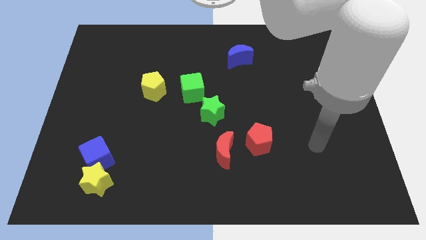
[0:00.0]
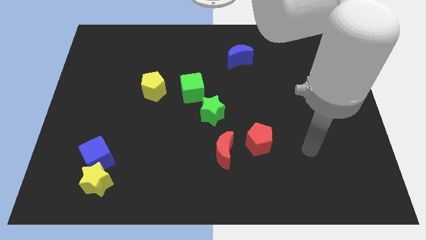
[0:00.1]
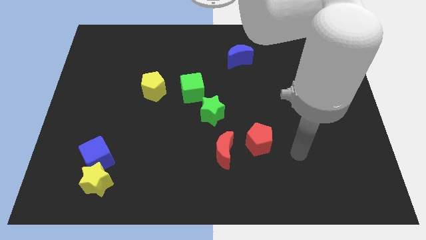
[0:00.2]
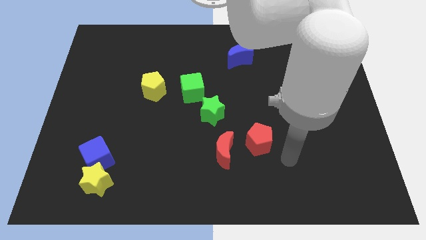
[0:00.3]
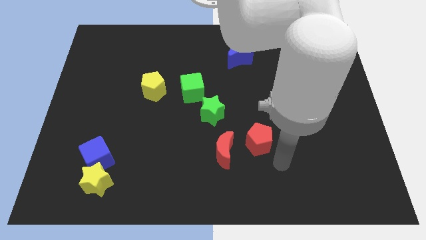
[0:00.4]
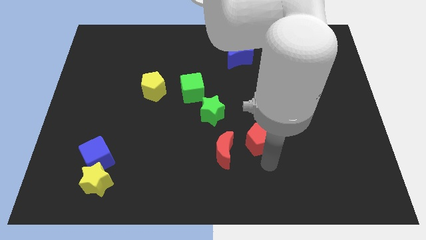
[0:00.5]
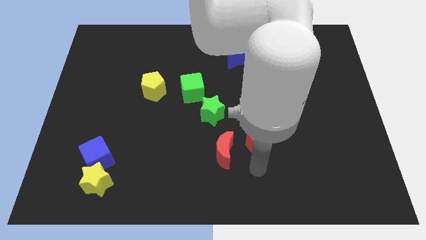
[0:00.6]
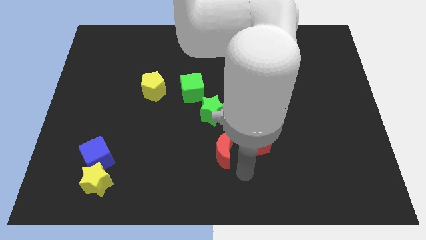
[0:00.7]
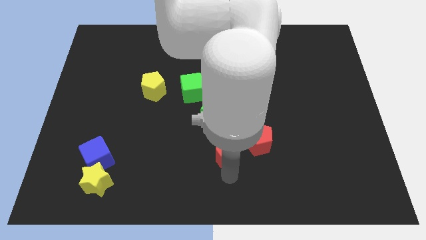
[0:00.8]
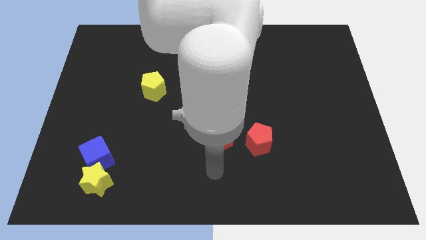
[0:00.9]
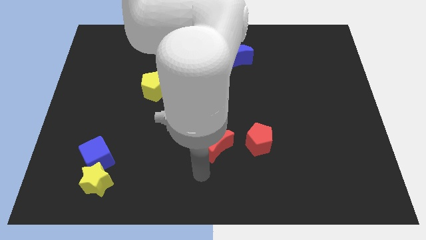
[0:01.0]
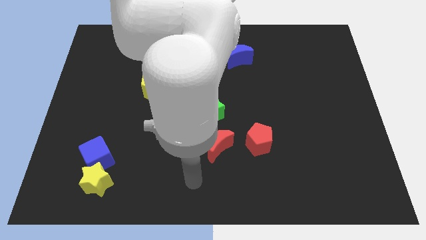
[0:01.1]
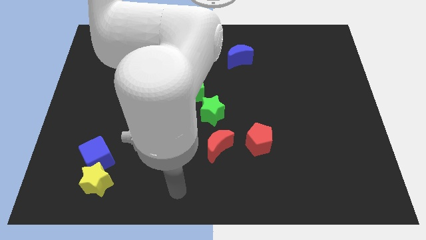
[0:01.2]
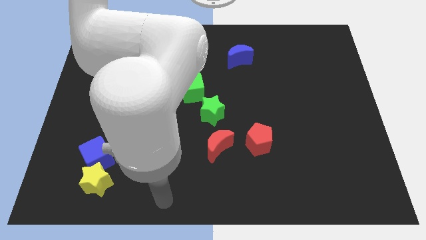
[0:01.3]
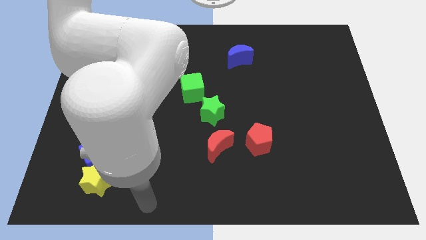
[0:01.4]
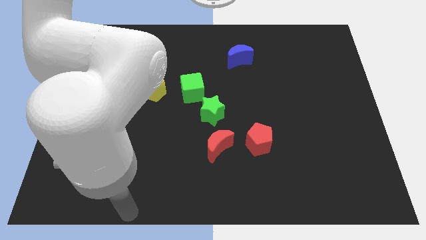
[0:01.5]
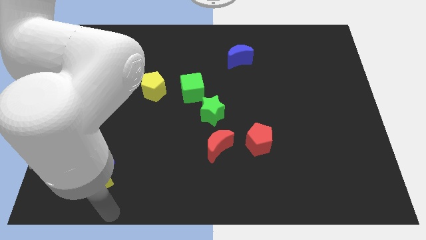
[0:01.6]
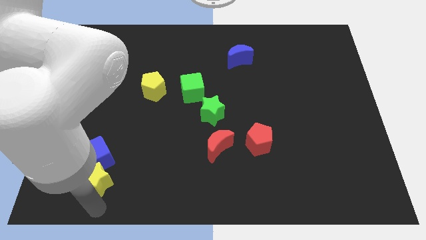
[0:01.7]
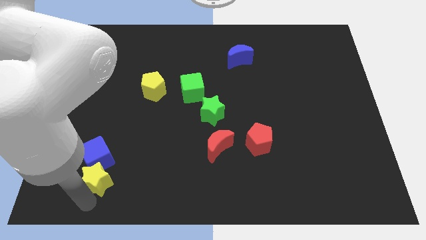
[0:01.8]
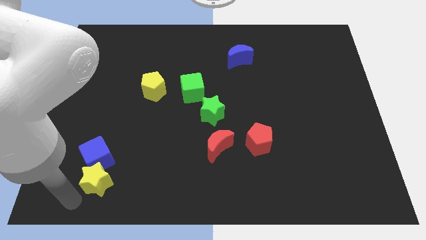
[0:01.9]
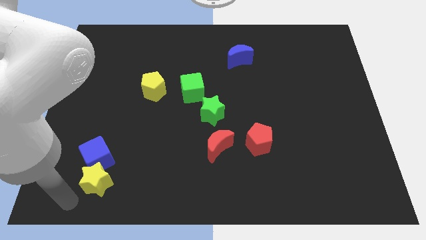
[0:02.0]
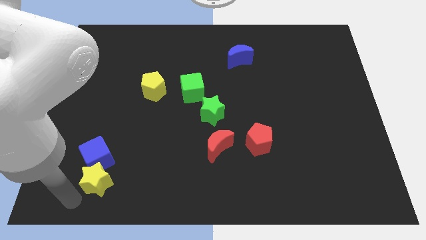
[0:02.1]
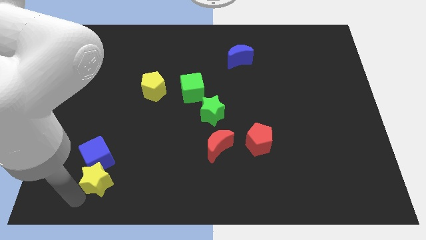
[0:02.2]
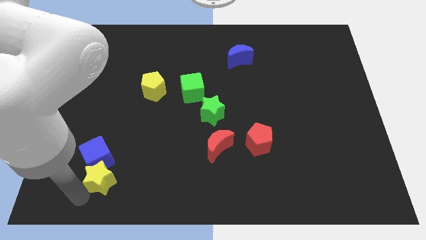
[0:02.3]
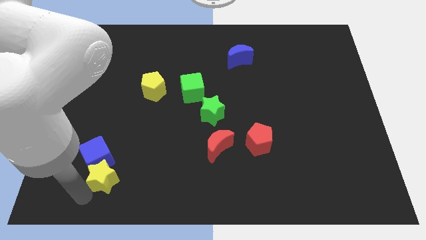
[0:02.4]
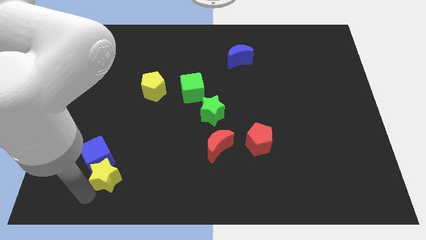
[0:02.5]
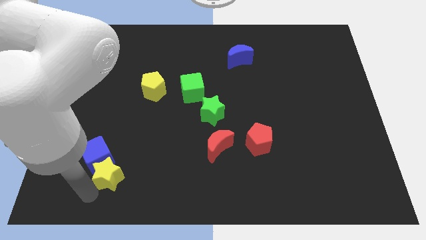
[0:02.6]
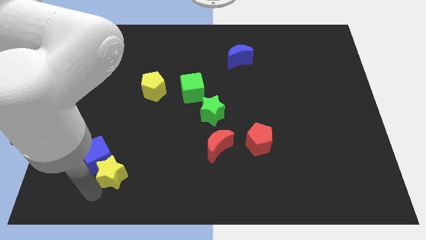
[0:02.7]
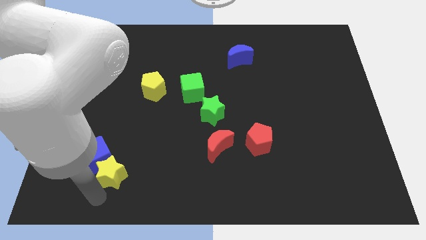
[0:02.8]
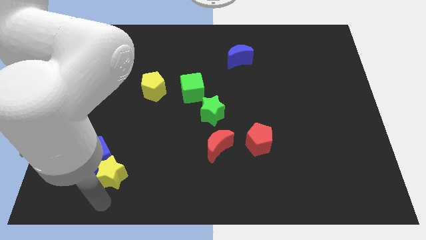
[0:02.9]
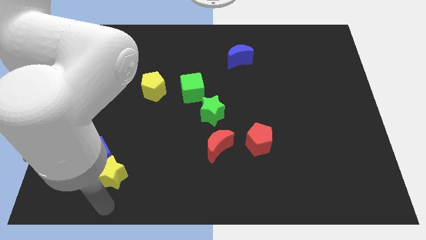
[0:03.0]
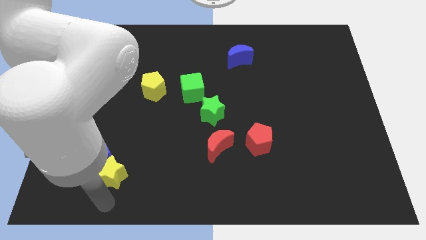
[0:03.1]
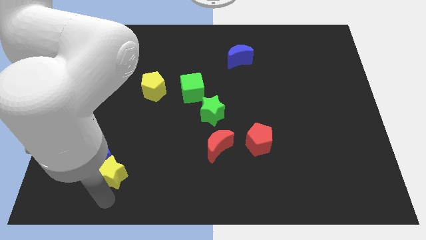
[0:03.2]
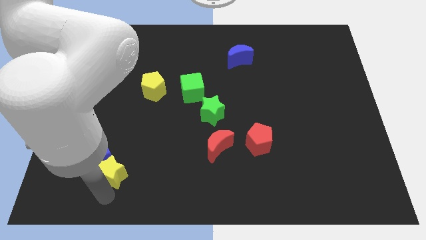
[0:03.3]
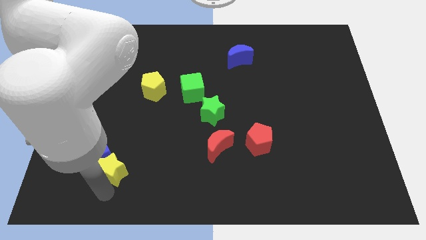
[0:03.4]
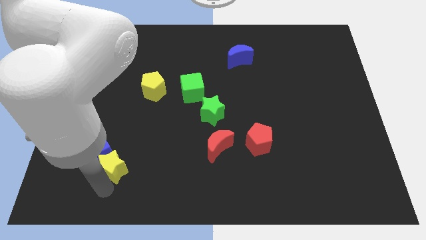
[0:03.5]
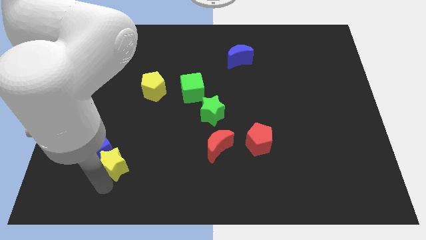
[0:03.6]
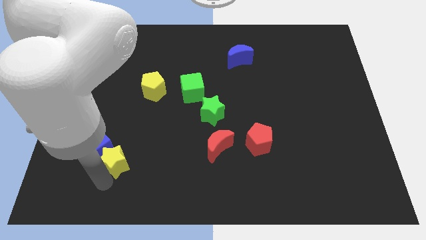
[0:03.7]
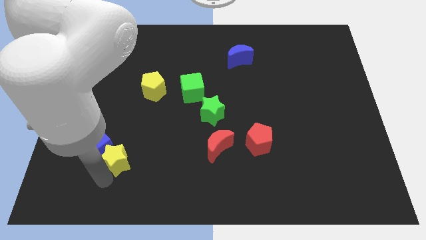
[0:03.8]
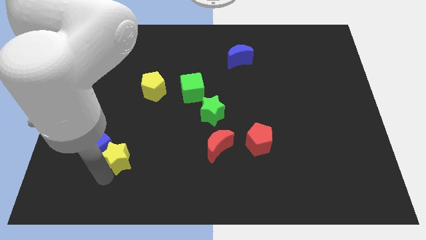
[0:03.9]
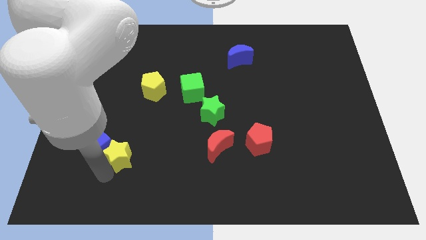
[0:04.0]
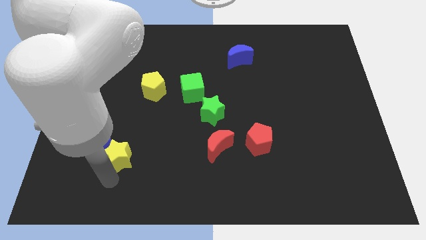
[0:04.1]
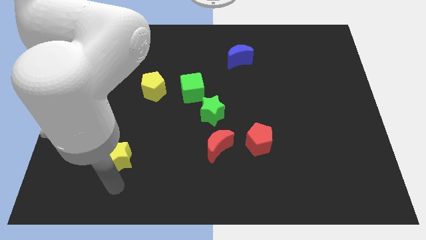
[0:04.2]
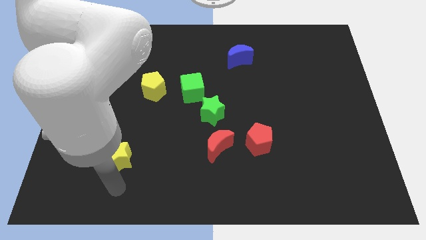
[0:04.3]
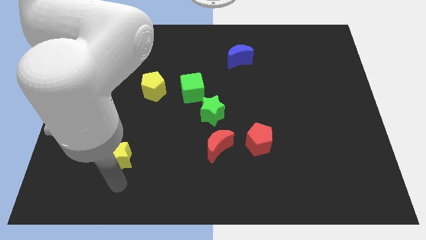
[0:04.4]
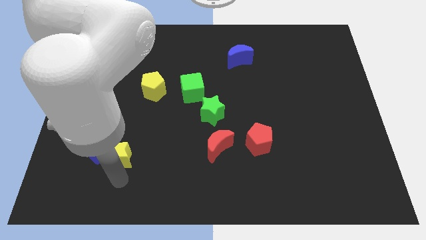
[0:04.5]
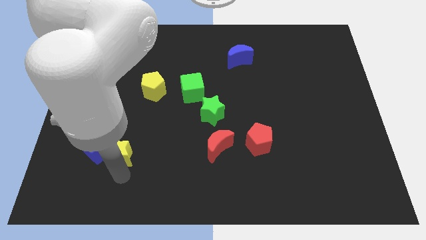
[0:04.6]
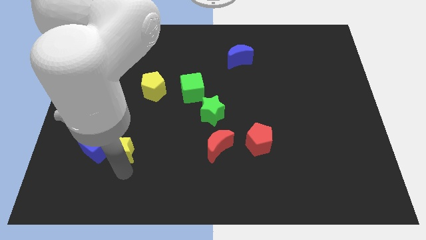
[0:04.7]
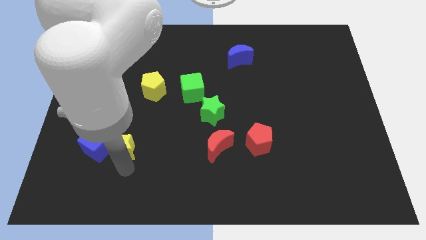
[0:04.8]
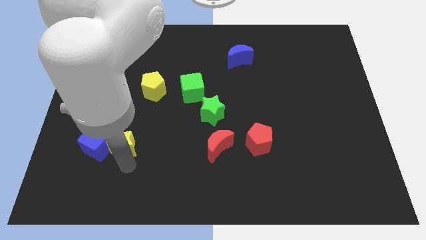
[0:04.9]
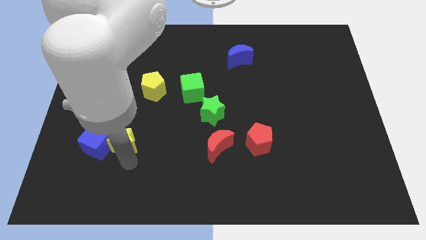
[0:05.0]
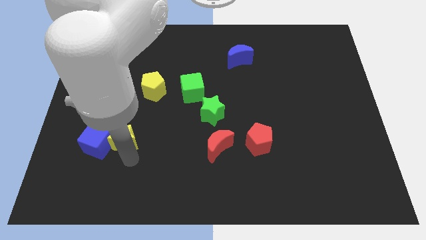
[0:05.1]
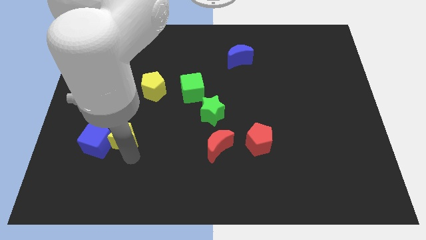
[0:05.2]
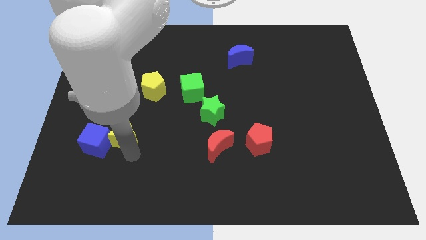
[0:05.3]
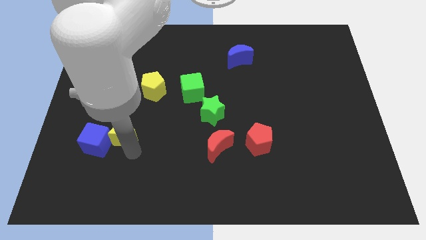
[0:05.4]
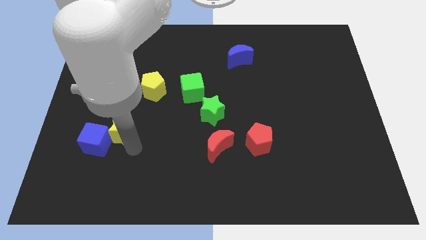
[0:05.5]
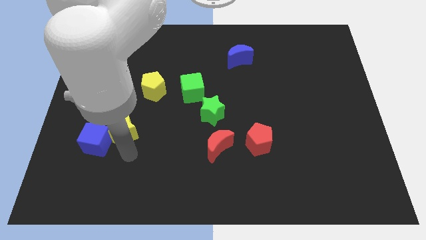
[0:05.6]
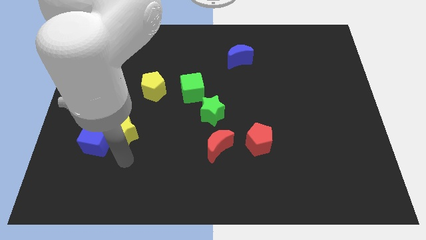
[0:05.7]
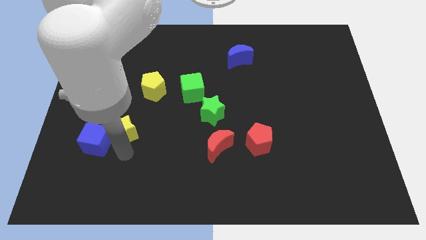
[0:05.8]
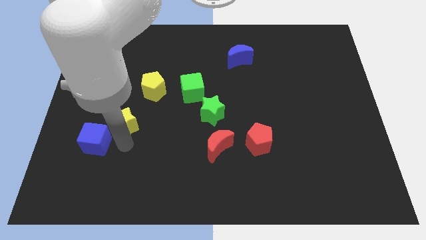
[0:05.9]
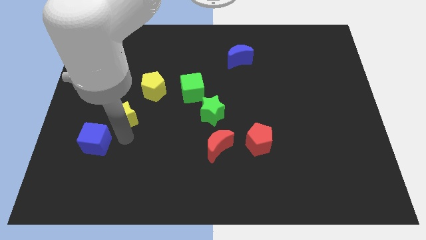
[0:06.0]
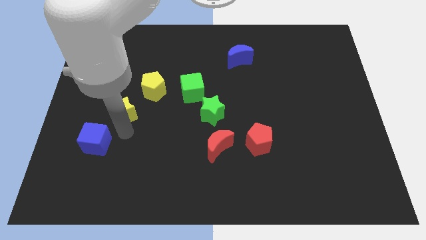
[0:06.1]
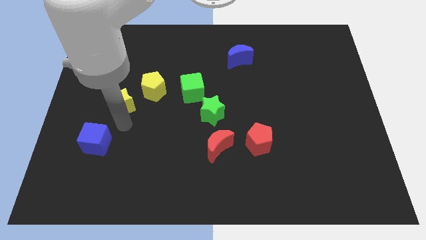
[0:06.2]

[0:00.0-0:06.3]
move the yellow star upwards

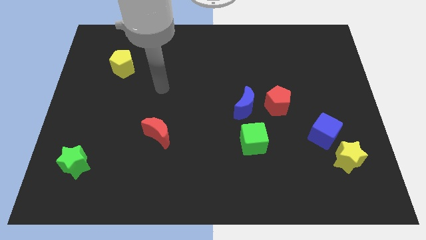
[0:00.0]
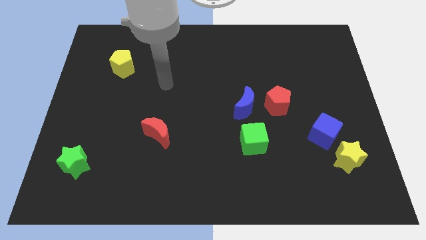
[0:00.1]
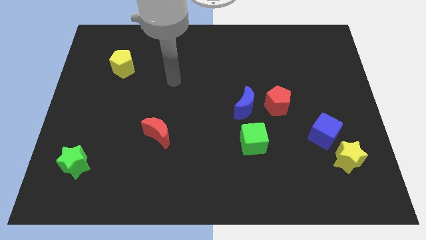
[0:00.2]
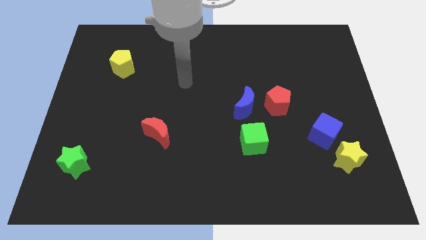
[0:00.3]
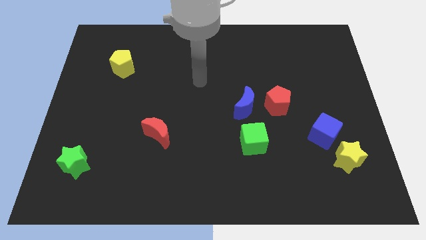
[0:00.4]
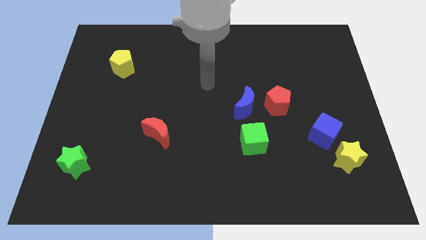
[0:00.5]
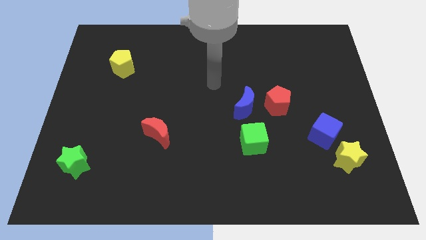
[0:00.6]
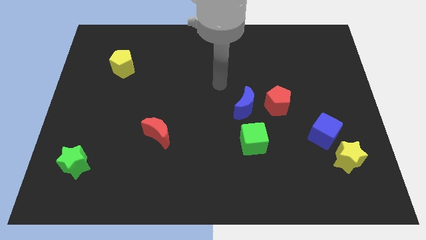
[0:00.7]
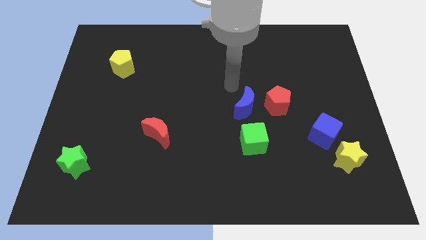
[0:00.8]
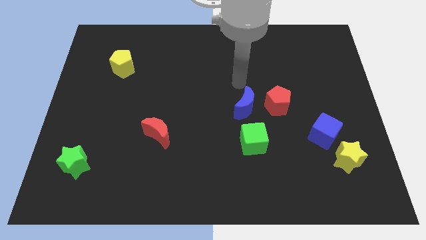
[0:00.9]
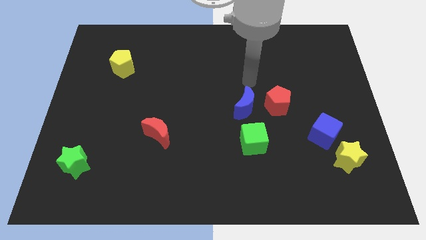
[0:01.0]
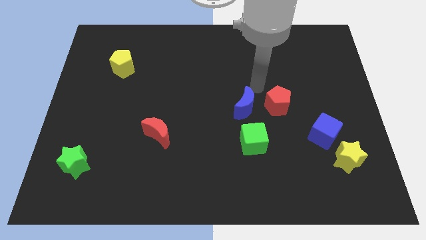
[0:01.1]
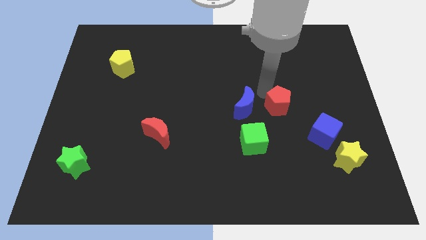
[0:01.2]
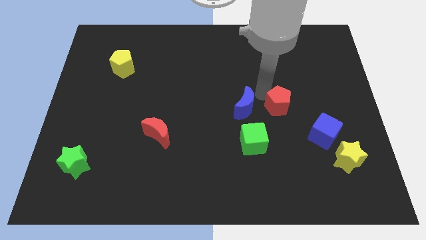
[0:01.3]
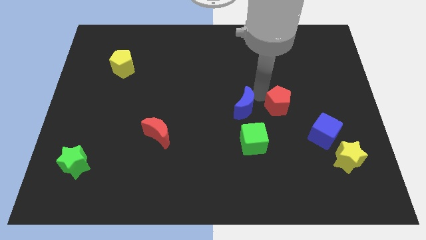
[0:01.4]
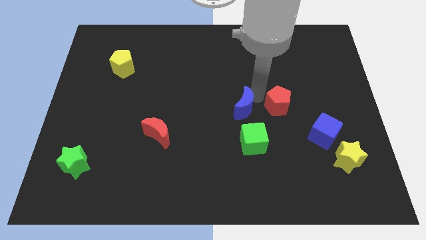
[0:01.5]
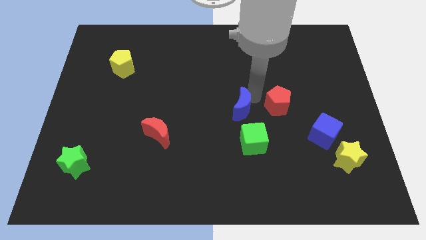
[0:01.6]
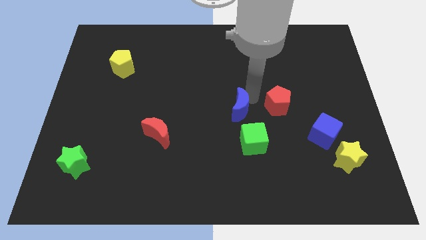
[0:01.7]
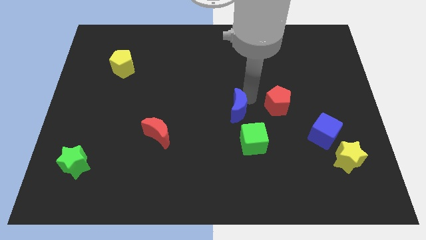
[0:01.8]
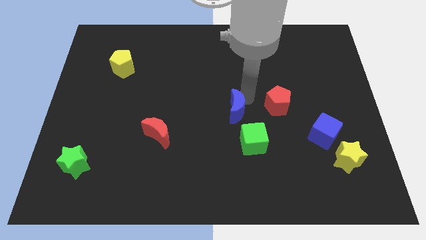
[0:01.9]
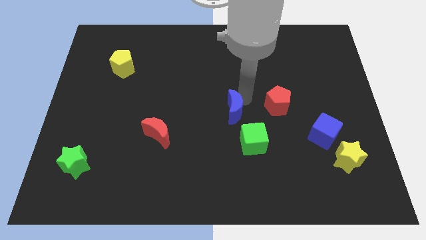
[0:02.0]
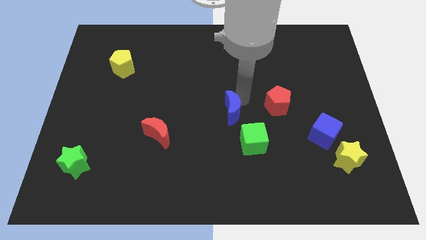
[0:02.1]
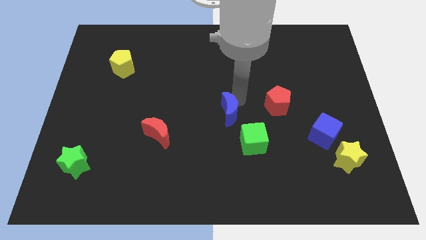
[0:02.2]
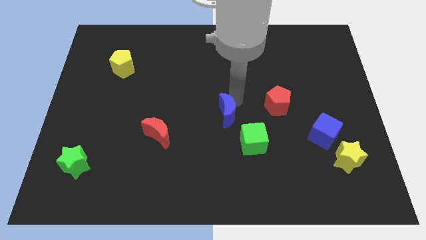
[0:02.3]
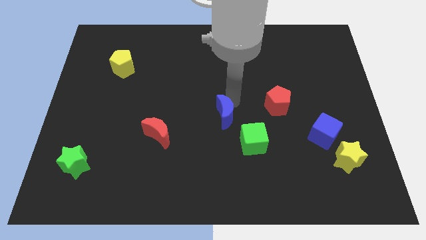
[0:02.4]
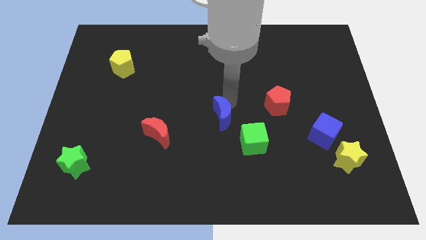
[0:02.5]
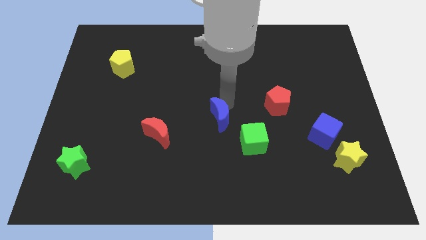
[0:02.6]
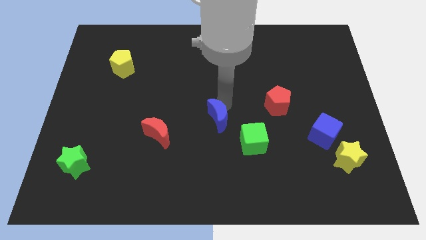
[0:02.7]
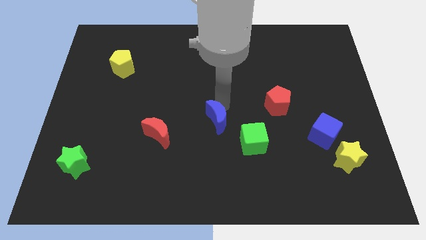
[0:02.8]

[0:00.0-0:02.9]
push the blue moon diagonally down and to the left a bit
